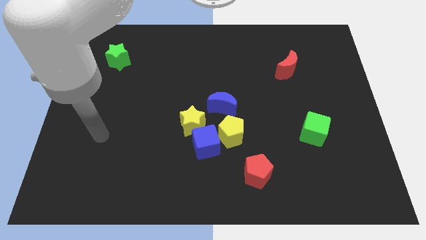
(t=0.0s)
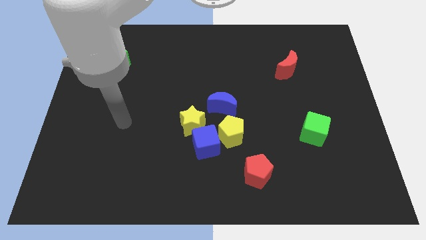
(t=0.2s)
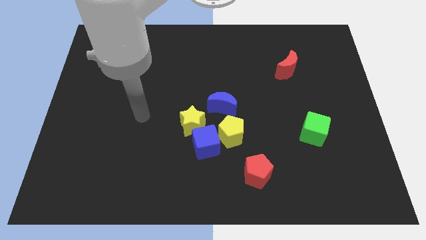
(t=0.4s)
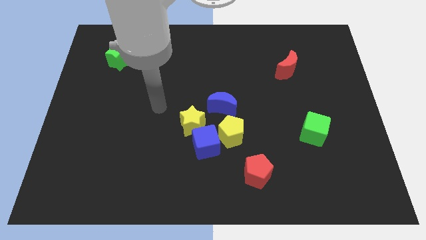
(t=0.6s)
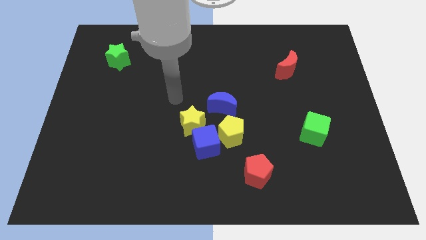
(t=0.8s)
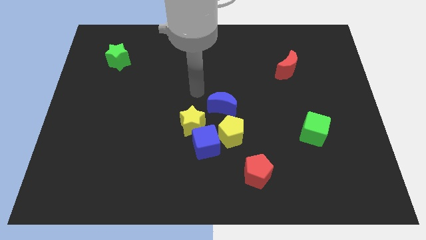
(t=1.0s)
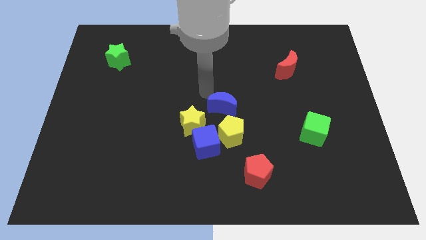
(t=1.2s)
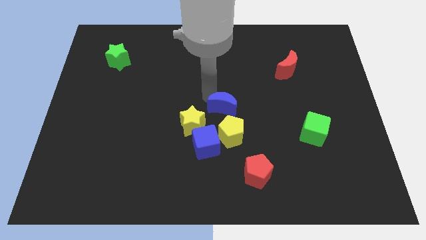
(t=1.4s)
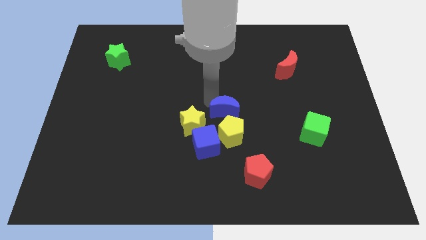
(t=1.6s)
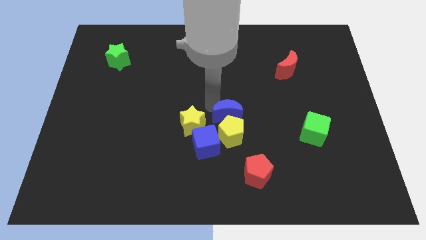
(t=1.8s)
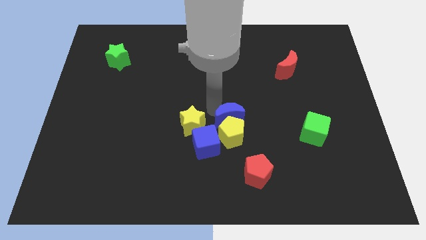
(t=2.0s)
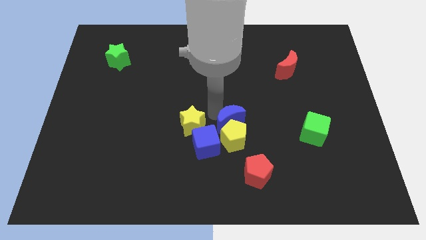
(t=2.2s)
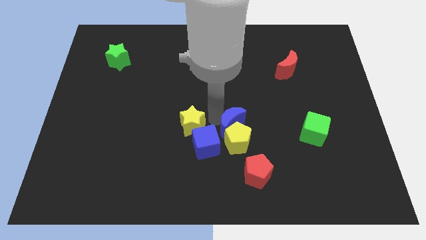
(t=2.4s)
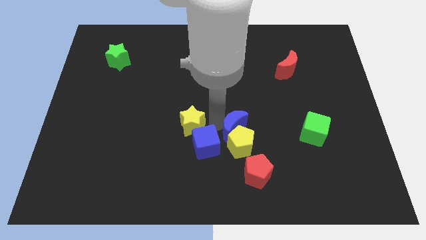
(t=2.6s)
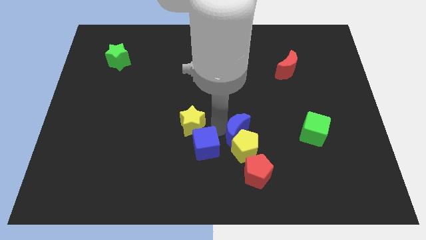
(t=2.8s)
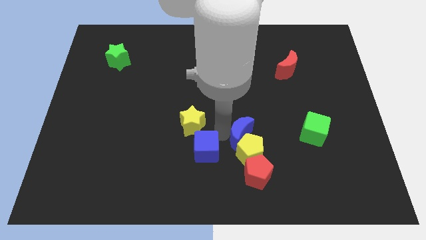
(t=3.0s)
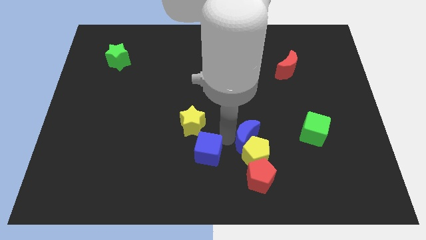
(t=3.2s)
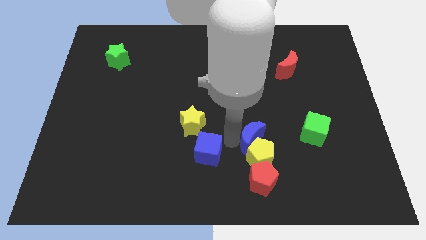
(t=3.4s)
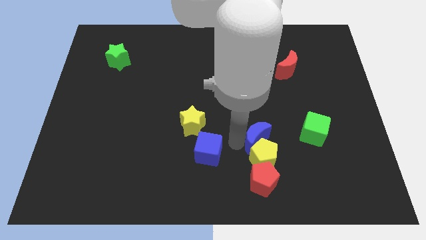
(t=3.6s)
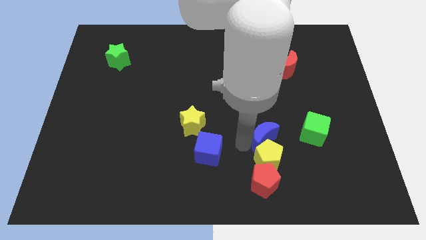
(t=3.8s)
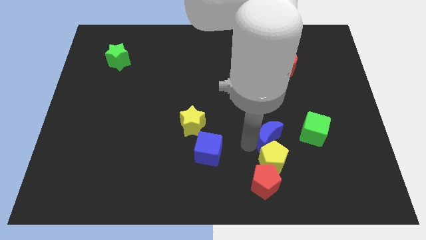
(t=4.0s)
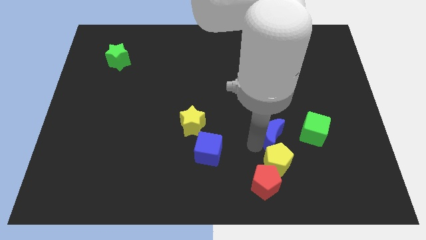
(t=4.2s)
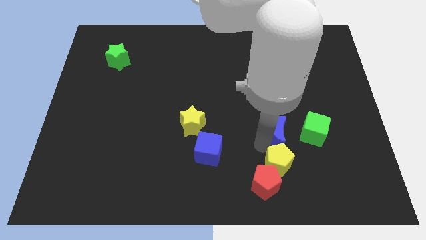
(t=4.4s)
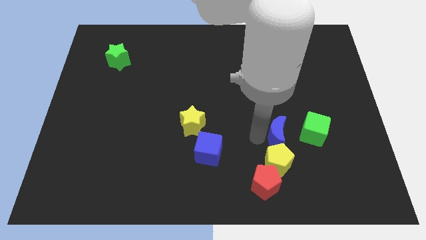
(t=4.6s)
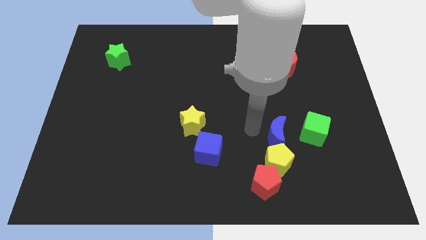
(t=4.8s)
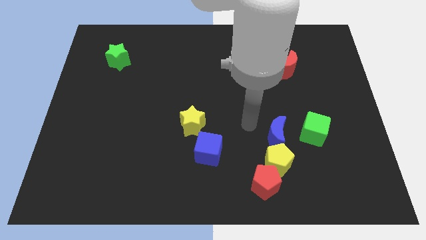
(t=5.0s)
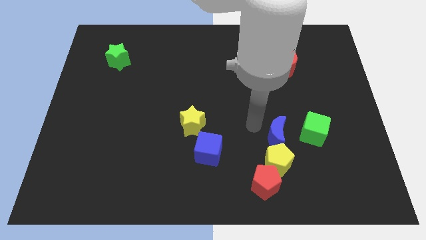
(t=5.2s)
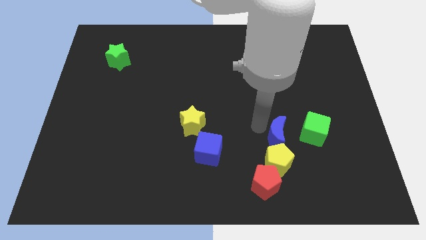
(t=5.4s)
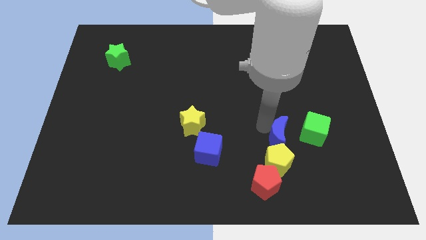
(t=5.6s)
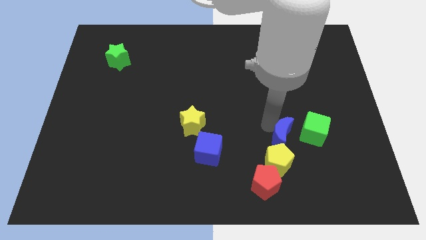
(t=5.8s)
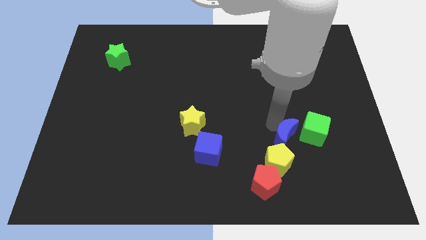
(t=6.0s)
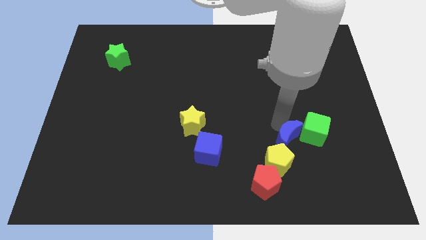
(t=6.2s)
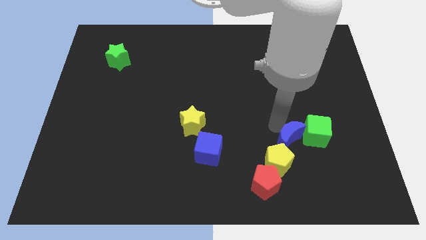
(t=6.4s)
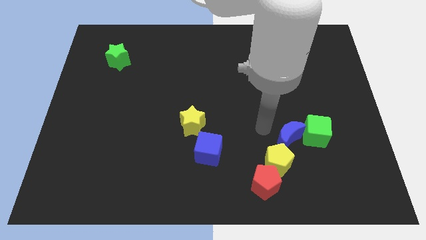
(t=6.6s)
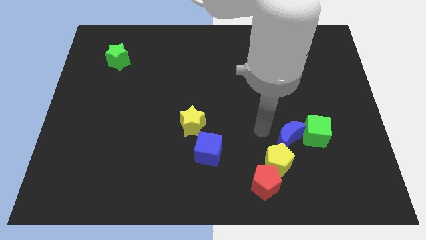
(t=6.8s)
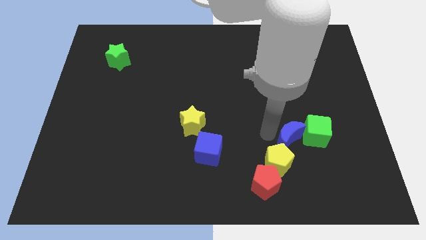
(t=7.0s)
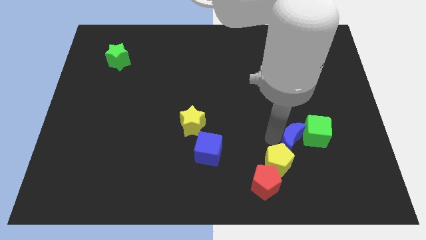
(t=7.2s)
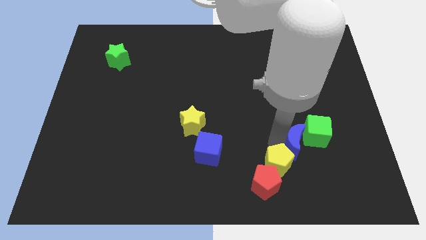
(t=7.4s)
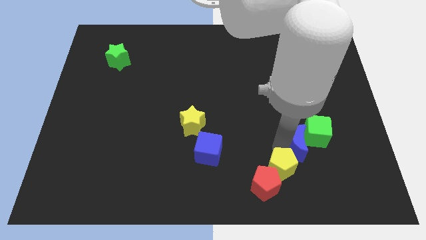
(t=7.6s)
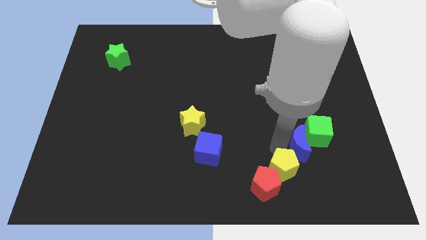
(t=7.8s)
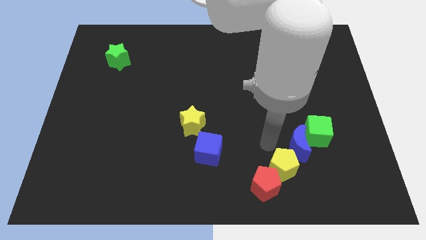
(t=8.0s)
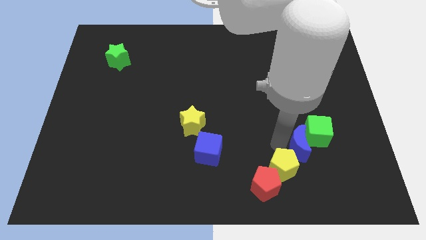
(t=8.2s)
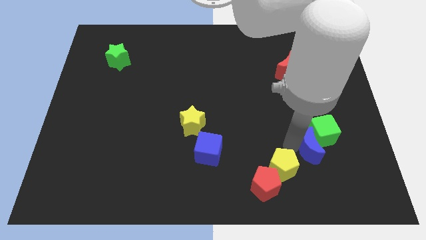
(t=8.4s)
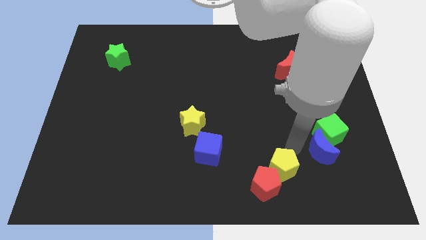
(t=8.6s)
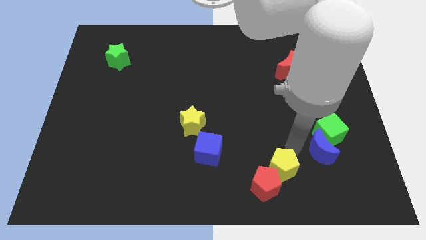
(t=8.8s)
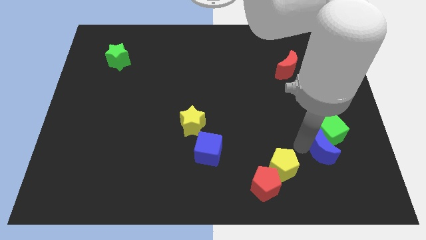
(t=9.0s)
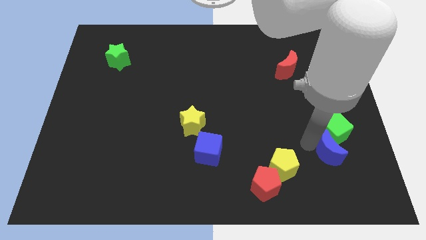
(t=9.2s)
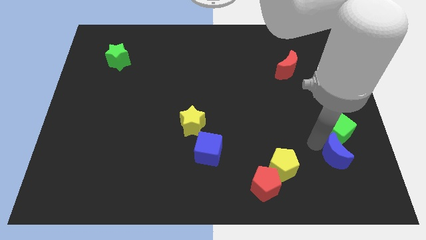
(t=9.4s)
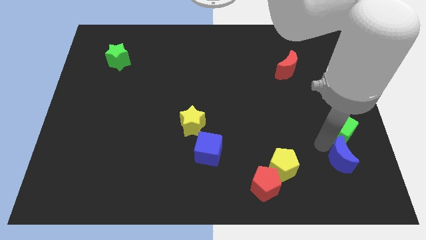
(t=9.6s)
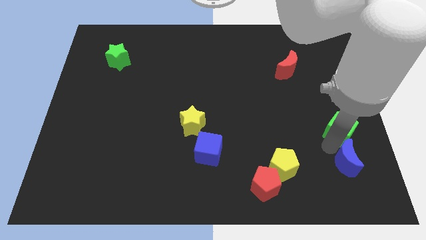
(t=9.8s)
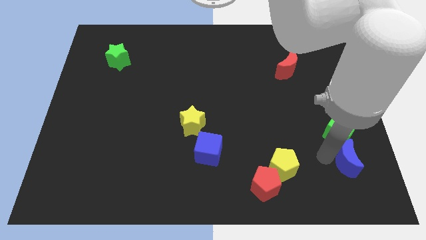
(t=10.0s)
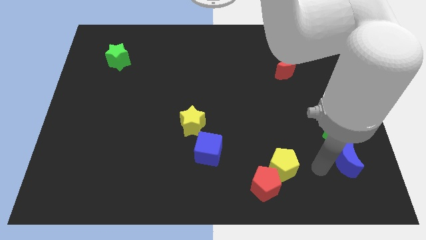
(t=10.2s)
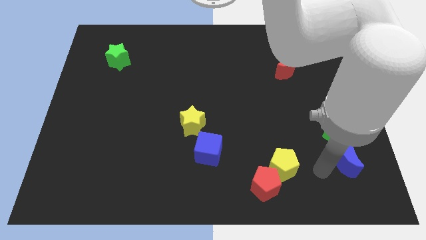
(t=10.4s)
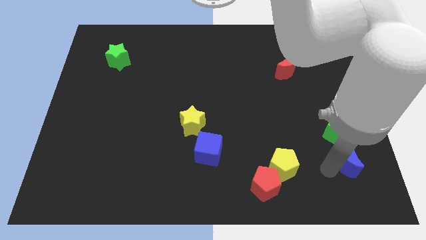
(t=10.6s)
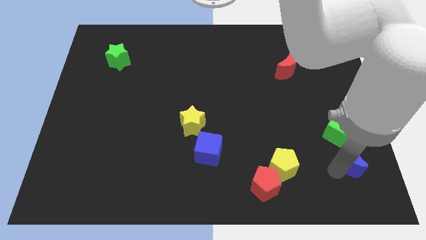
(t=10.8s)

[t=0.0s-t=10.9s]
push the blue moon diagonally down and to the right of the green cube

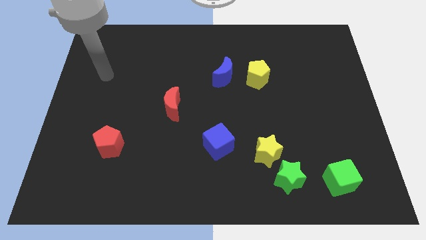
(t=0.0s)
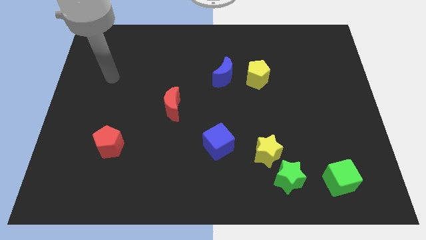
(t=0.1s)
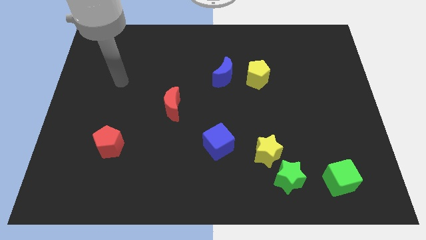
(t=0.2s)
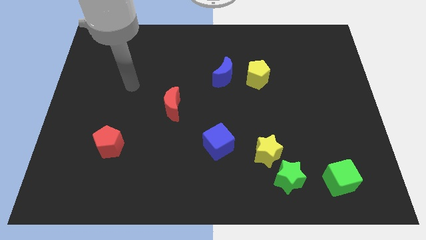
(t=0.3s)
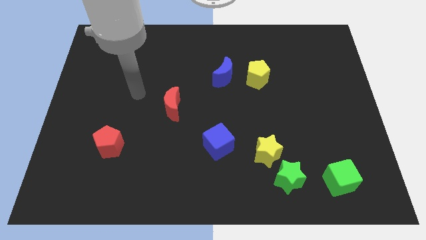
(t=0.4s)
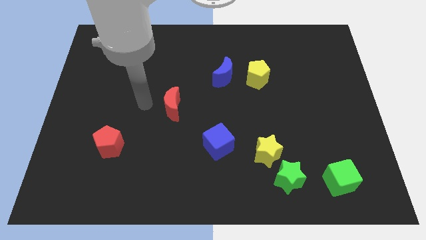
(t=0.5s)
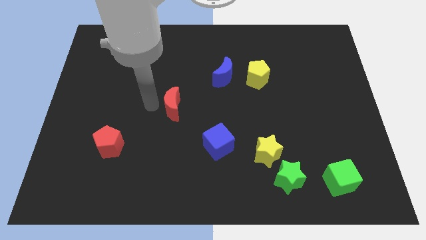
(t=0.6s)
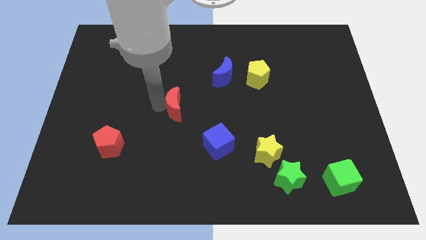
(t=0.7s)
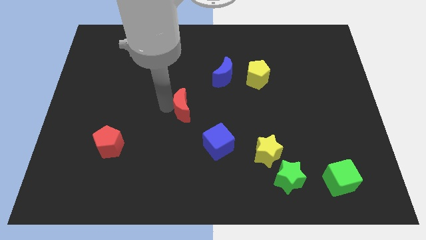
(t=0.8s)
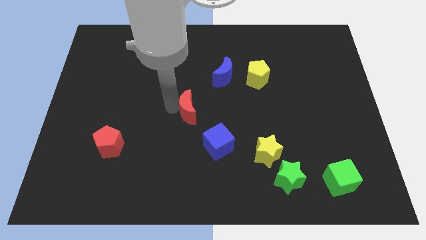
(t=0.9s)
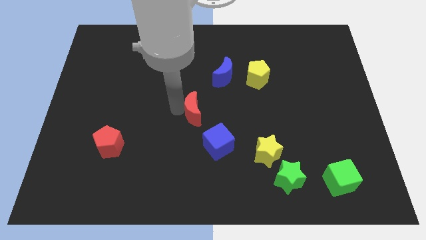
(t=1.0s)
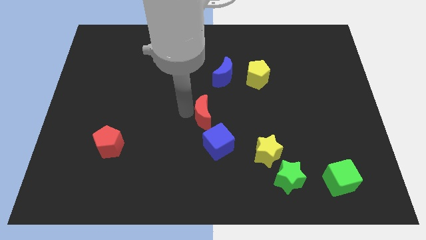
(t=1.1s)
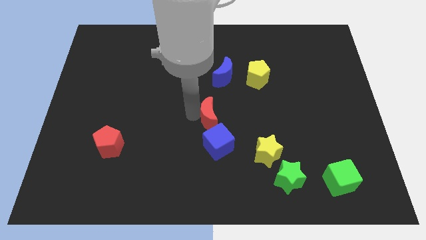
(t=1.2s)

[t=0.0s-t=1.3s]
slide the red moon below the blue moon
